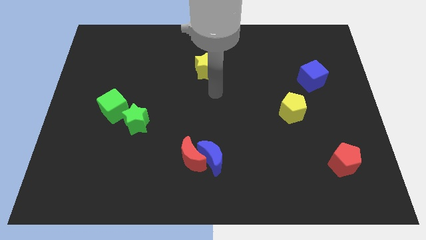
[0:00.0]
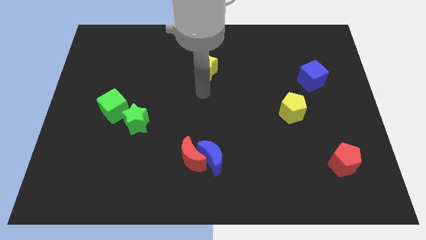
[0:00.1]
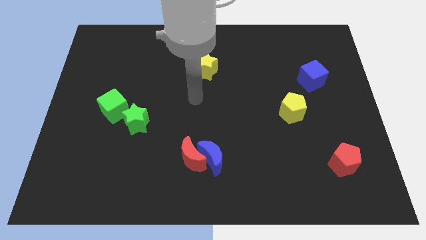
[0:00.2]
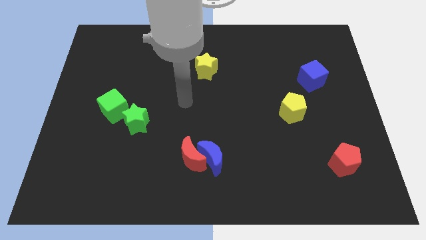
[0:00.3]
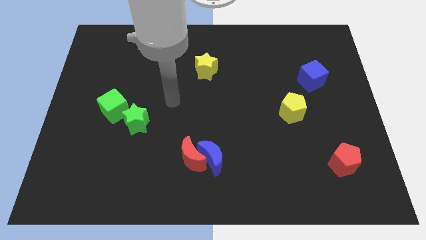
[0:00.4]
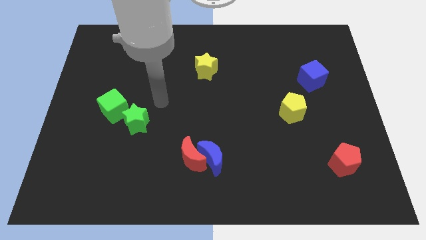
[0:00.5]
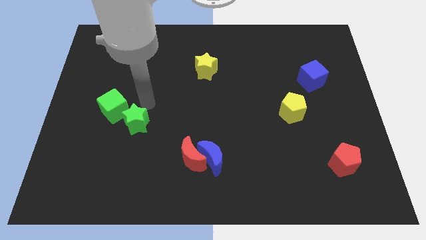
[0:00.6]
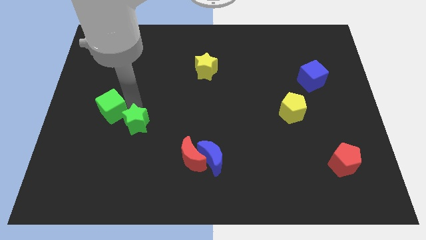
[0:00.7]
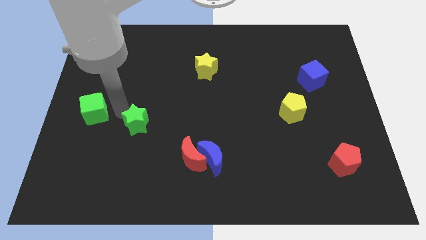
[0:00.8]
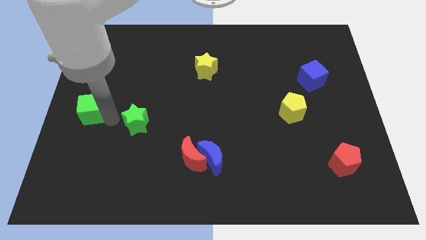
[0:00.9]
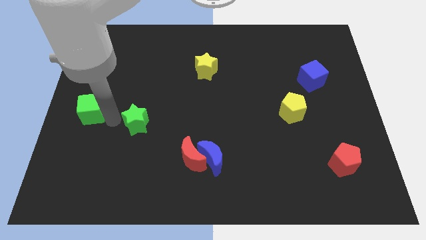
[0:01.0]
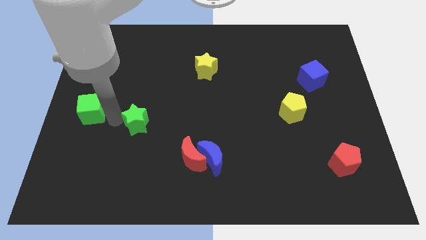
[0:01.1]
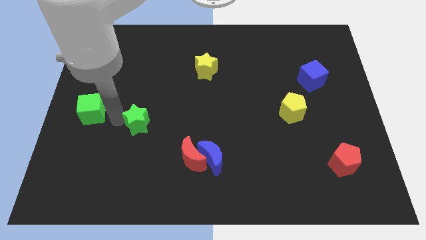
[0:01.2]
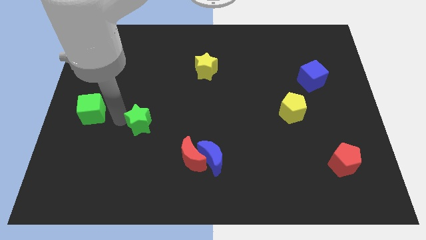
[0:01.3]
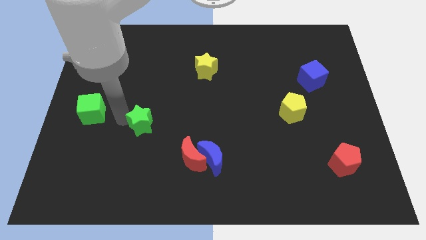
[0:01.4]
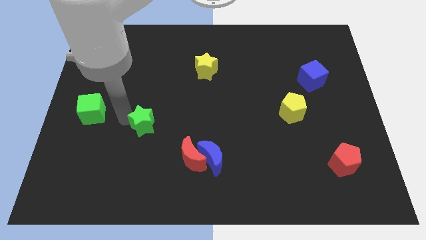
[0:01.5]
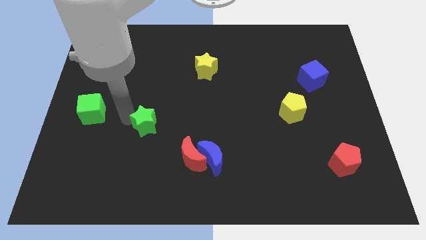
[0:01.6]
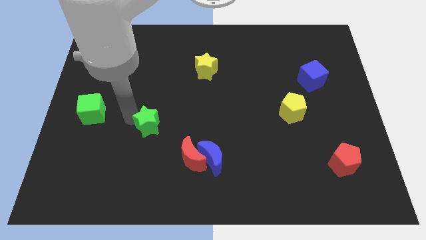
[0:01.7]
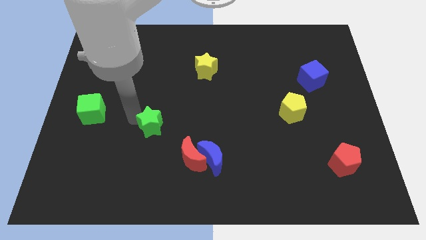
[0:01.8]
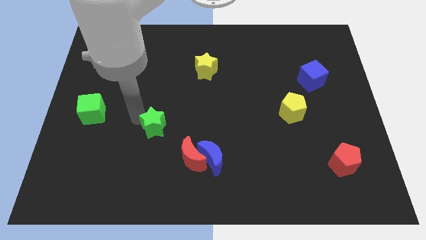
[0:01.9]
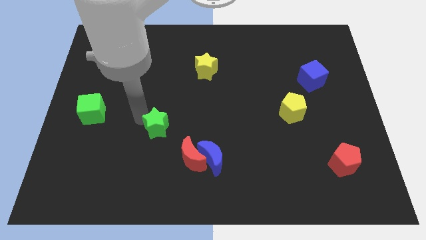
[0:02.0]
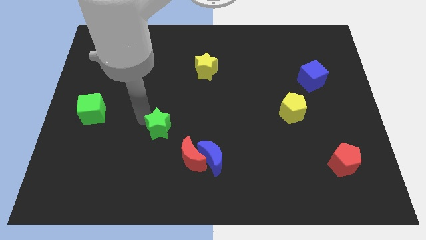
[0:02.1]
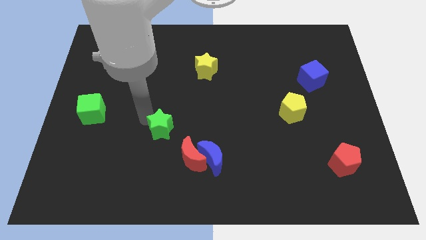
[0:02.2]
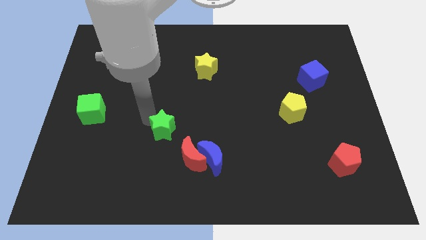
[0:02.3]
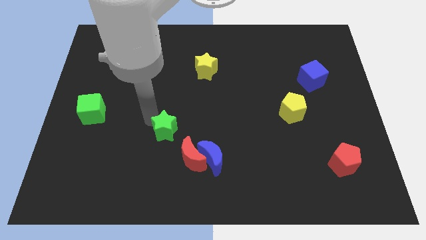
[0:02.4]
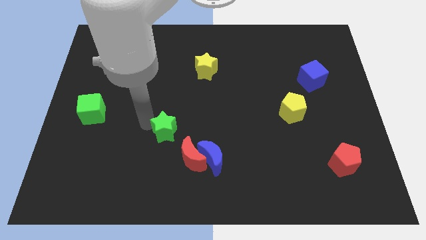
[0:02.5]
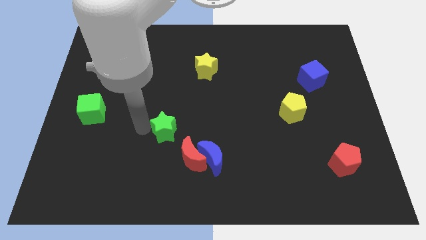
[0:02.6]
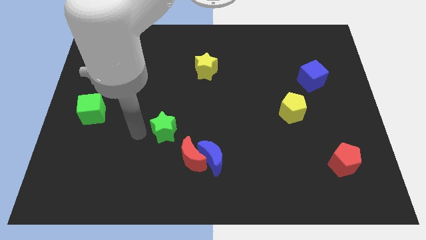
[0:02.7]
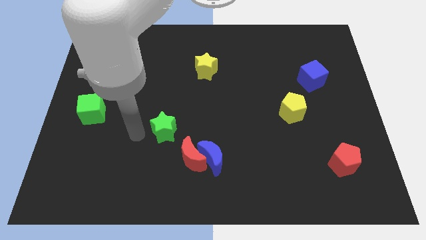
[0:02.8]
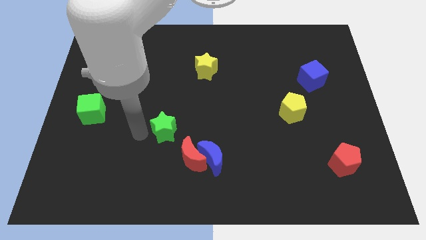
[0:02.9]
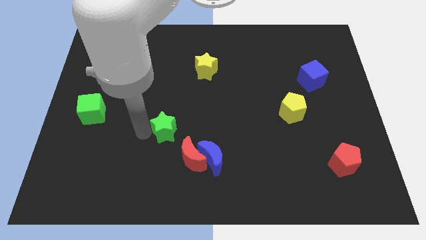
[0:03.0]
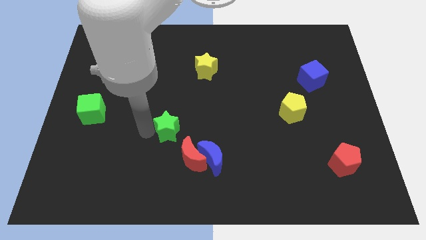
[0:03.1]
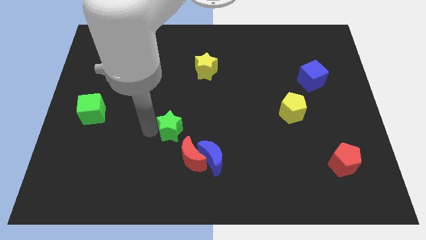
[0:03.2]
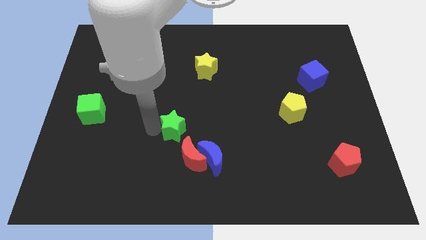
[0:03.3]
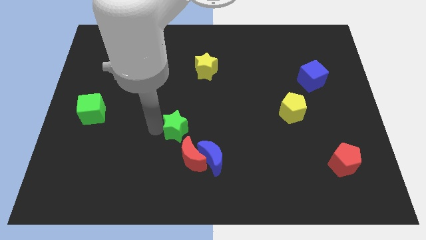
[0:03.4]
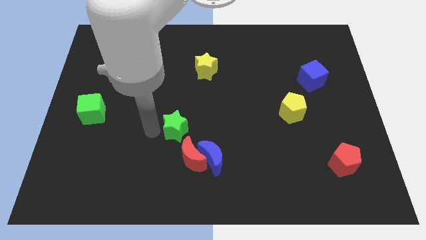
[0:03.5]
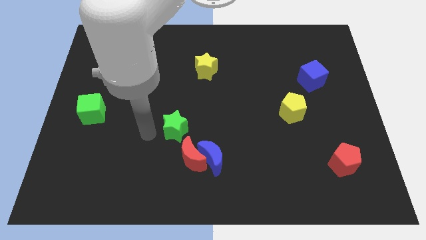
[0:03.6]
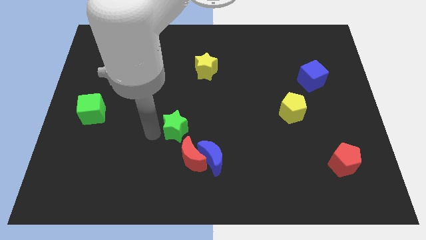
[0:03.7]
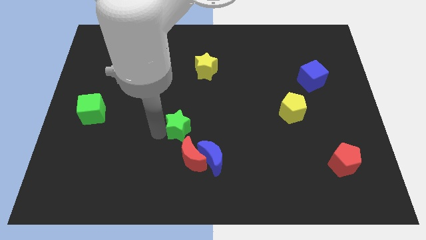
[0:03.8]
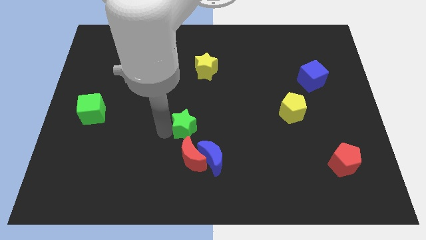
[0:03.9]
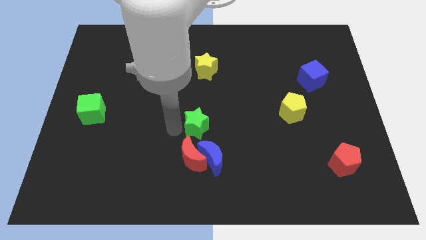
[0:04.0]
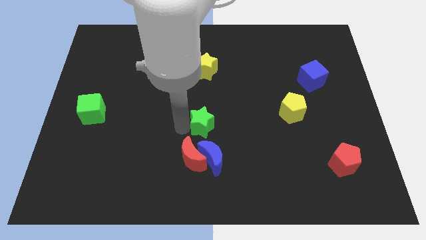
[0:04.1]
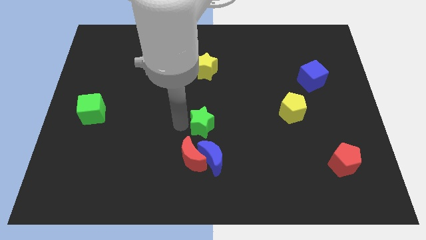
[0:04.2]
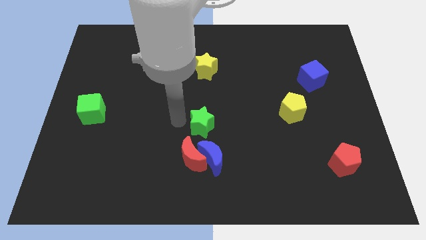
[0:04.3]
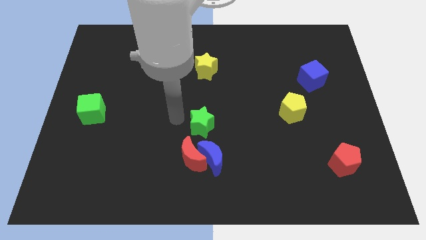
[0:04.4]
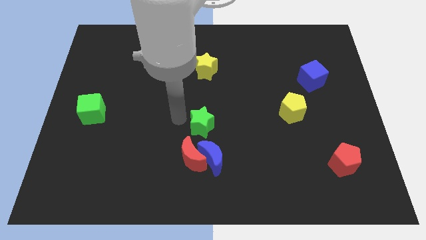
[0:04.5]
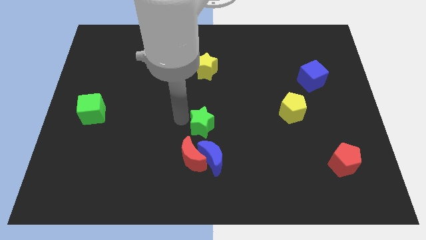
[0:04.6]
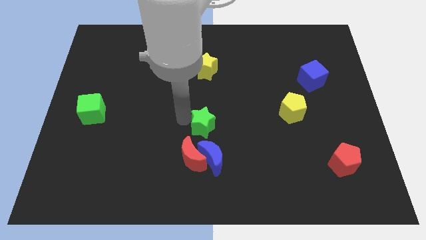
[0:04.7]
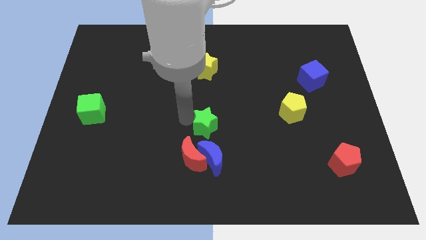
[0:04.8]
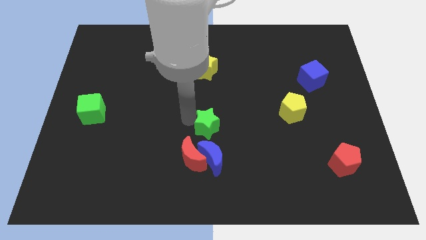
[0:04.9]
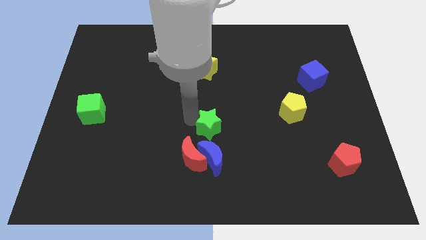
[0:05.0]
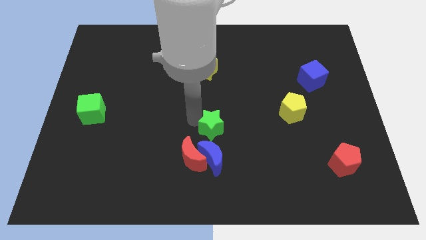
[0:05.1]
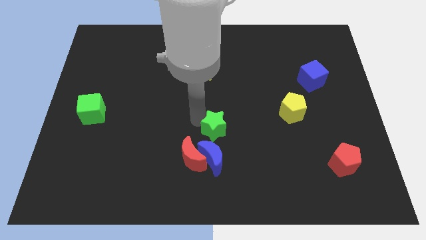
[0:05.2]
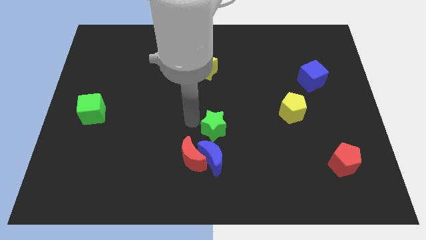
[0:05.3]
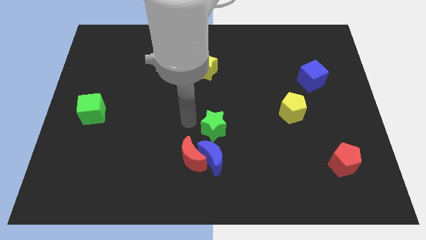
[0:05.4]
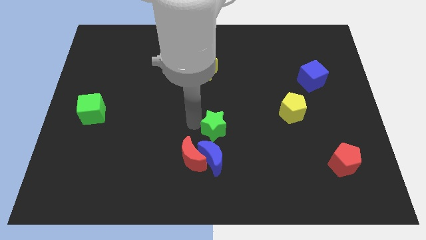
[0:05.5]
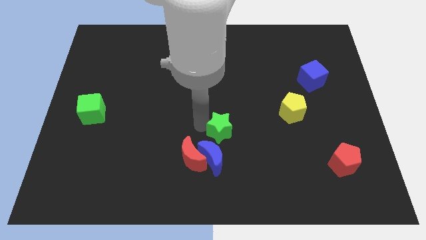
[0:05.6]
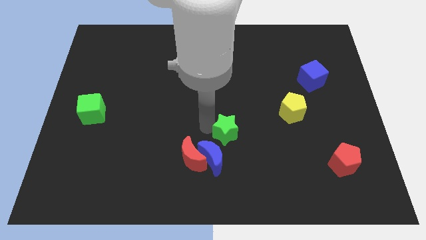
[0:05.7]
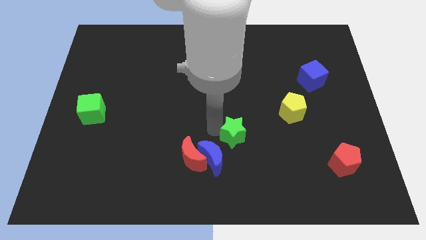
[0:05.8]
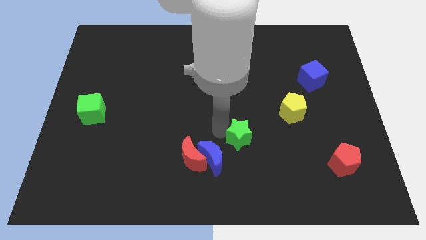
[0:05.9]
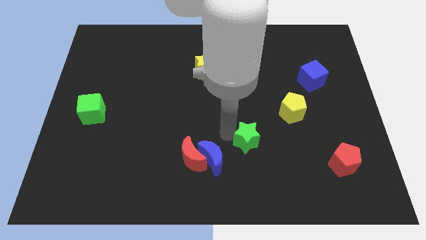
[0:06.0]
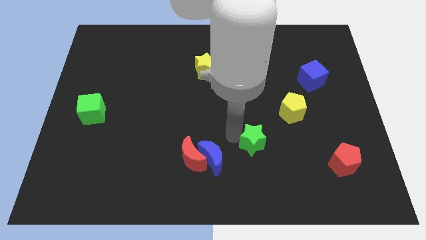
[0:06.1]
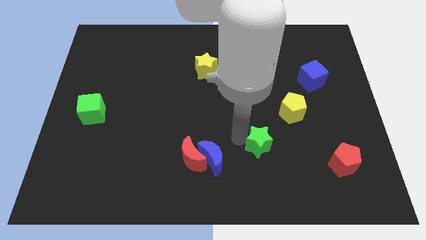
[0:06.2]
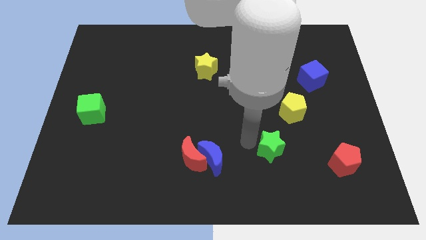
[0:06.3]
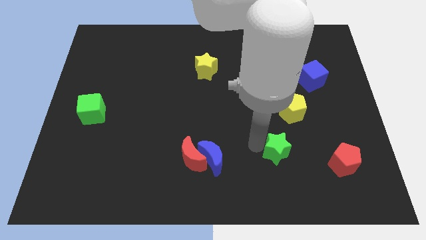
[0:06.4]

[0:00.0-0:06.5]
slide the green star to the bottom of the yellow pentagon

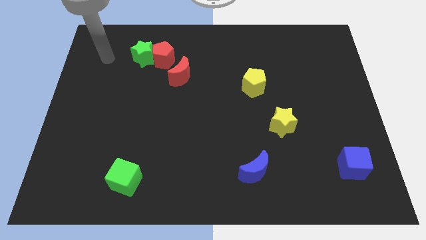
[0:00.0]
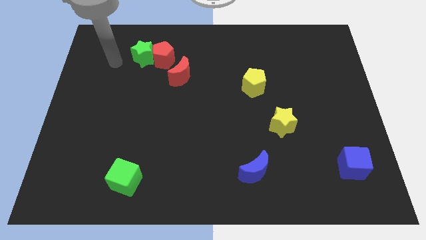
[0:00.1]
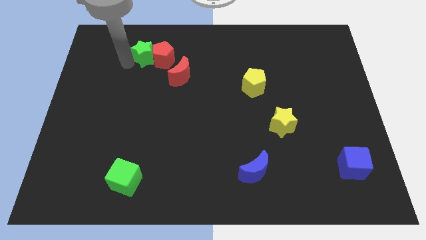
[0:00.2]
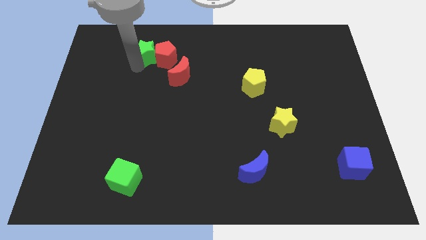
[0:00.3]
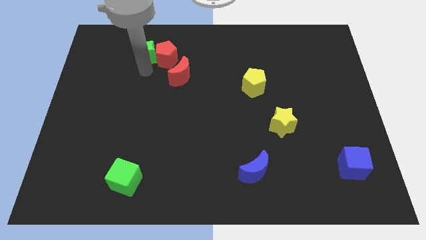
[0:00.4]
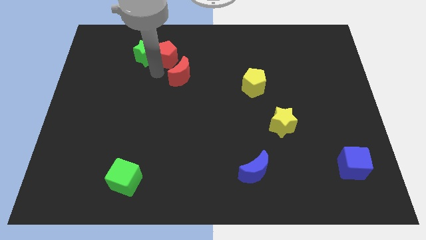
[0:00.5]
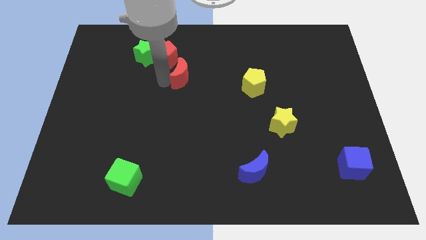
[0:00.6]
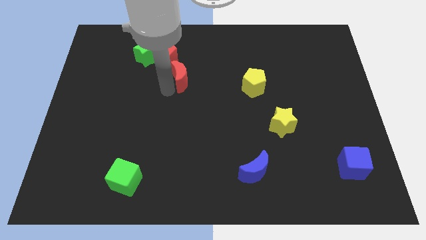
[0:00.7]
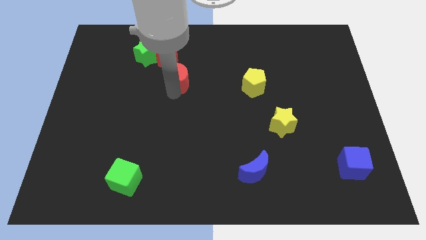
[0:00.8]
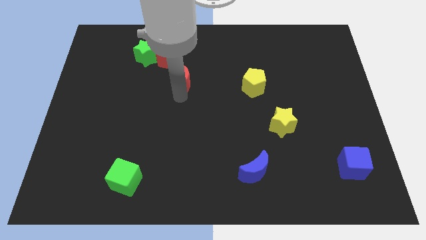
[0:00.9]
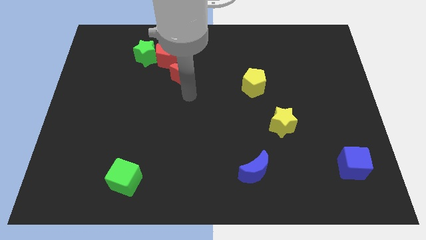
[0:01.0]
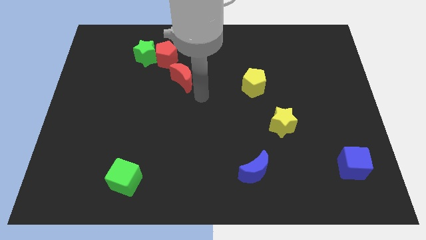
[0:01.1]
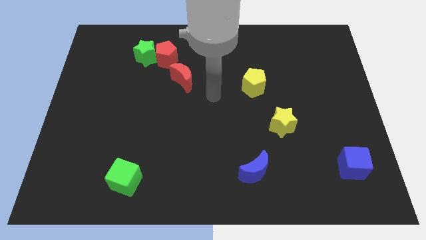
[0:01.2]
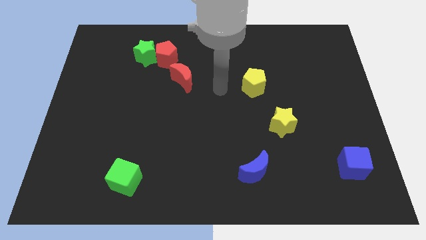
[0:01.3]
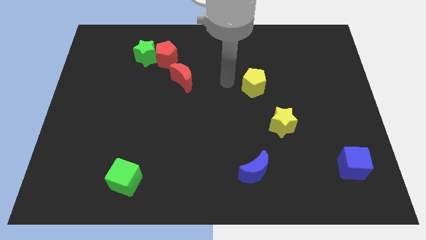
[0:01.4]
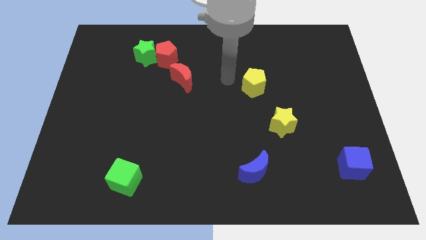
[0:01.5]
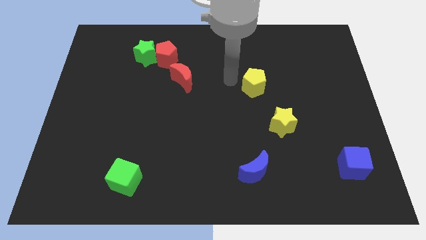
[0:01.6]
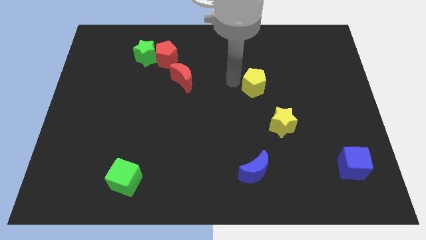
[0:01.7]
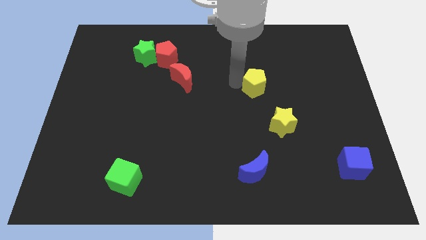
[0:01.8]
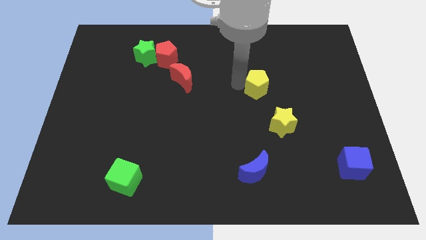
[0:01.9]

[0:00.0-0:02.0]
put the yellow pentagon above the yellow star
